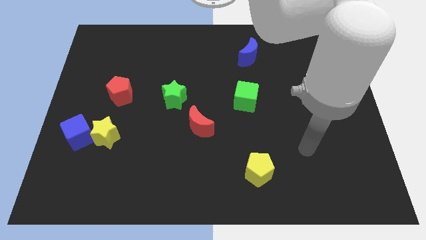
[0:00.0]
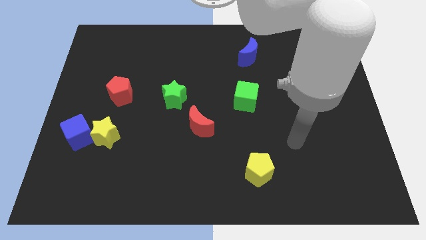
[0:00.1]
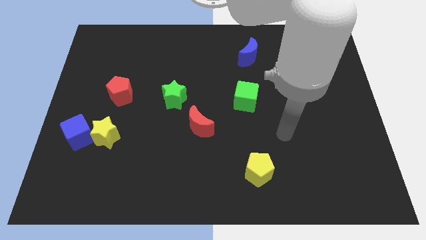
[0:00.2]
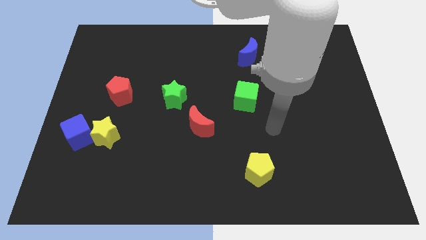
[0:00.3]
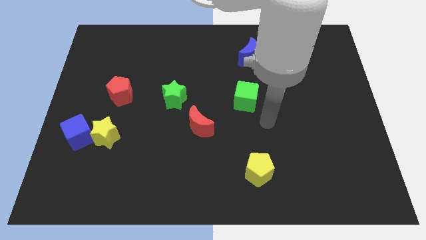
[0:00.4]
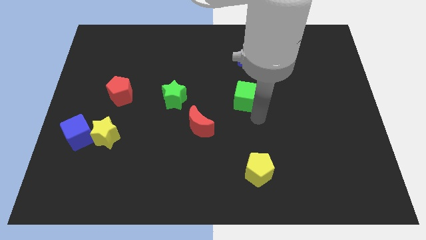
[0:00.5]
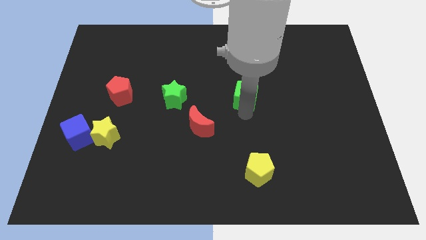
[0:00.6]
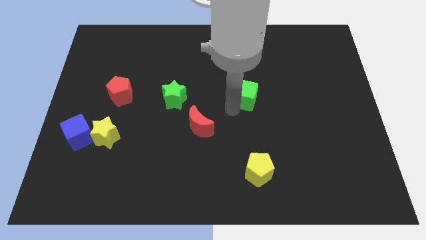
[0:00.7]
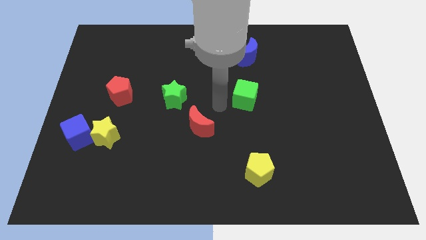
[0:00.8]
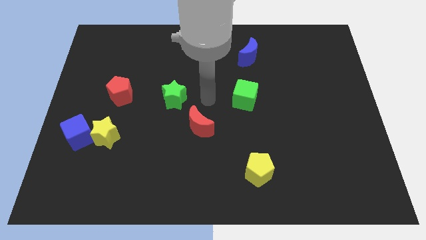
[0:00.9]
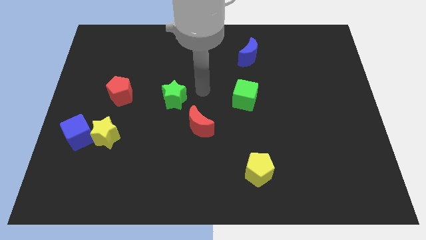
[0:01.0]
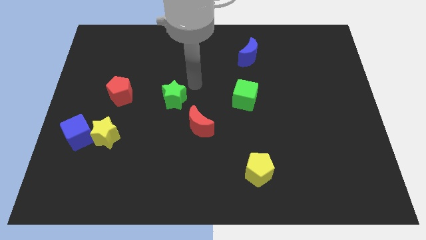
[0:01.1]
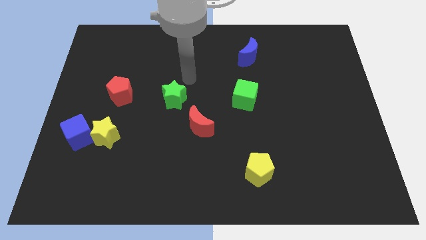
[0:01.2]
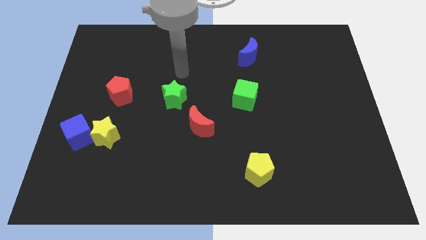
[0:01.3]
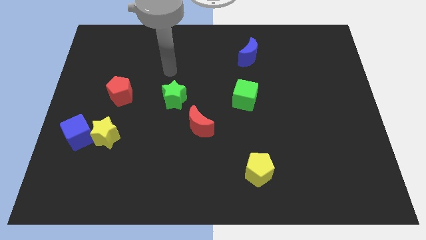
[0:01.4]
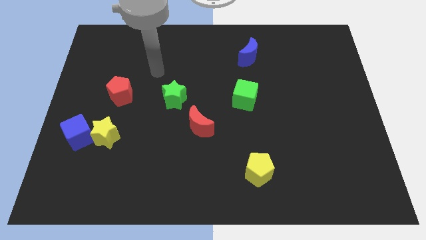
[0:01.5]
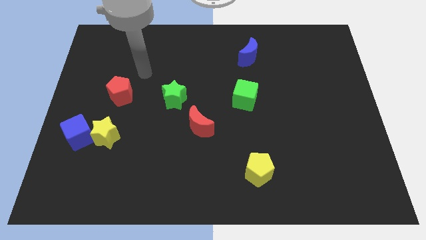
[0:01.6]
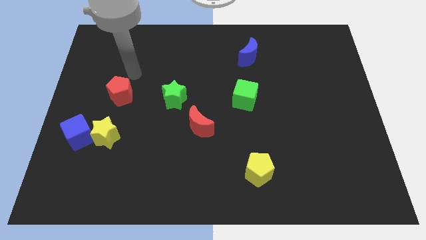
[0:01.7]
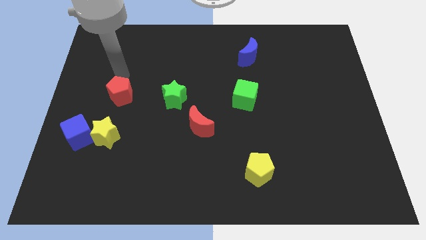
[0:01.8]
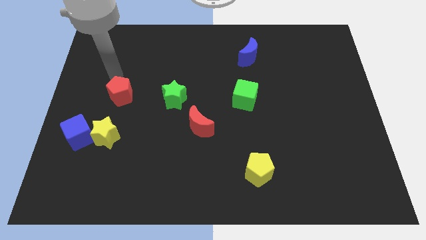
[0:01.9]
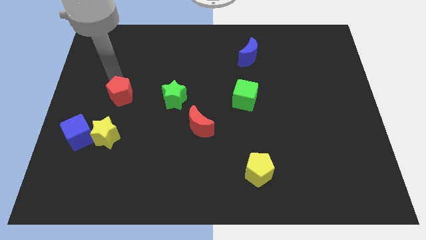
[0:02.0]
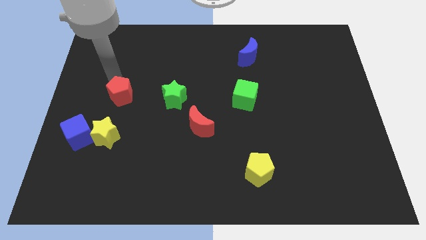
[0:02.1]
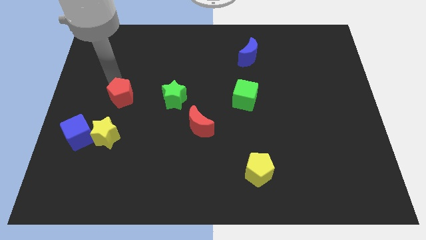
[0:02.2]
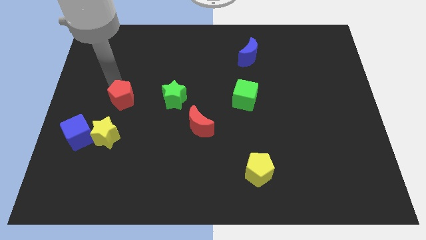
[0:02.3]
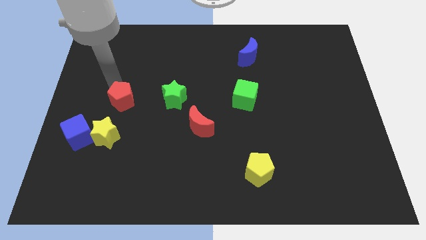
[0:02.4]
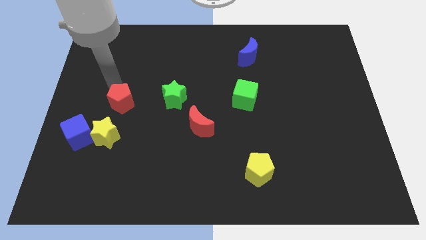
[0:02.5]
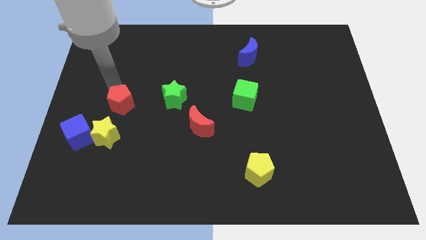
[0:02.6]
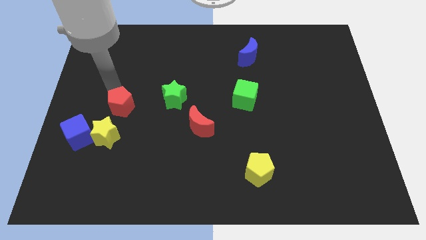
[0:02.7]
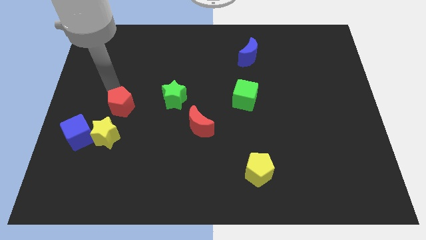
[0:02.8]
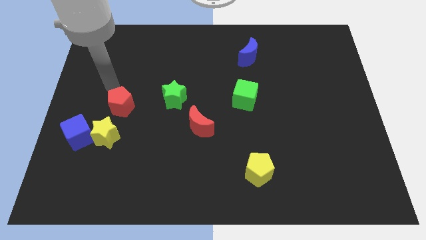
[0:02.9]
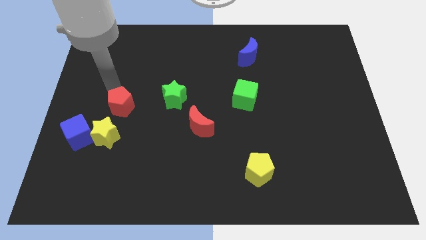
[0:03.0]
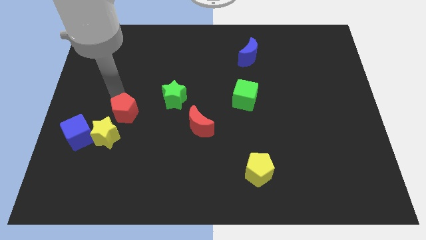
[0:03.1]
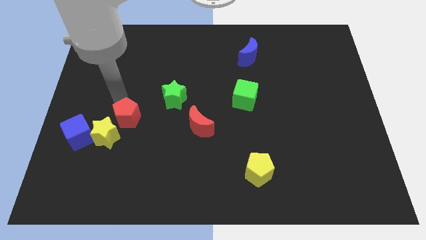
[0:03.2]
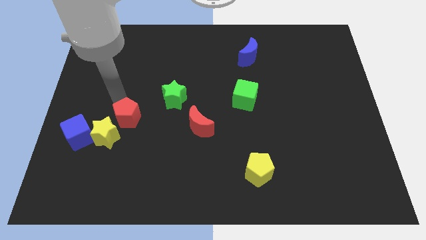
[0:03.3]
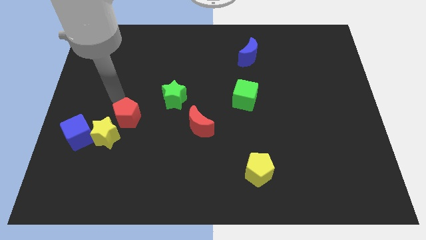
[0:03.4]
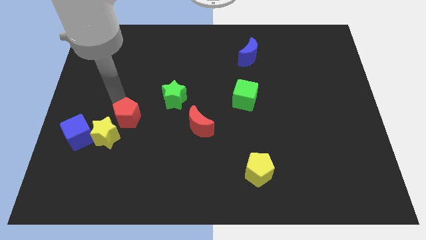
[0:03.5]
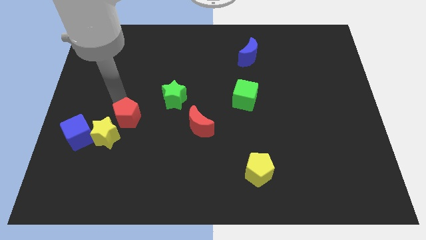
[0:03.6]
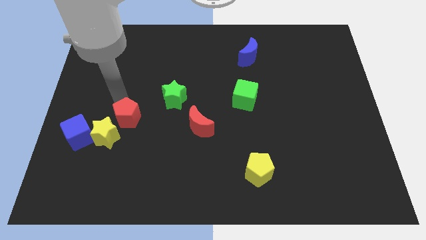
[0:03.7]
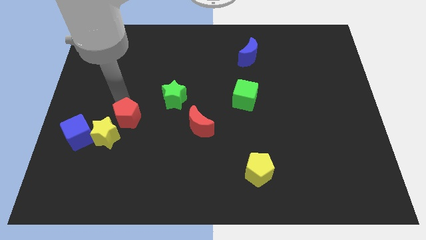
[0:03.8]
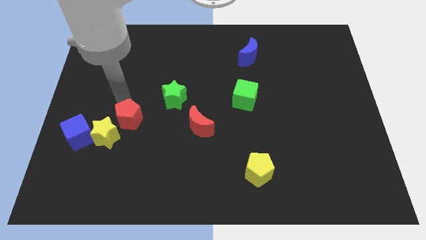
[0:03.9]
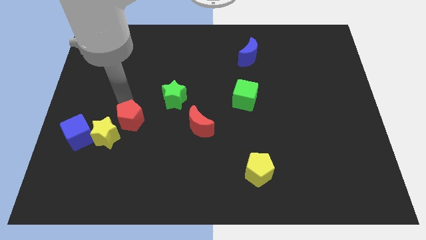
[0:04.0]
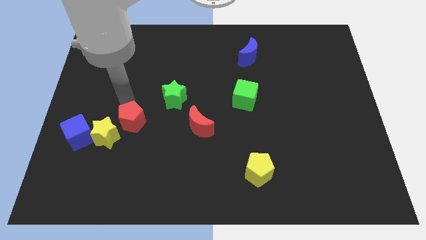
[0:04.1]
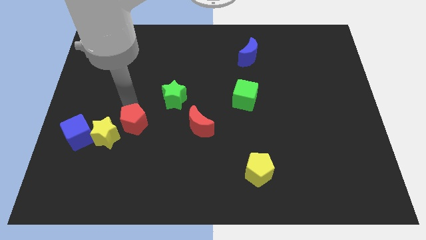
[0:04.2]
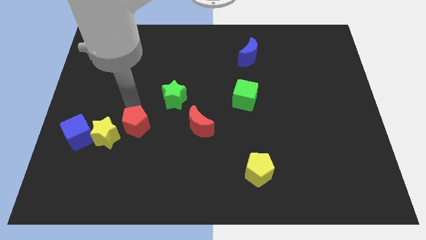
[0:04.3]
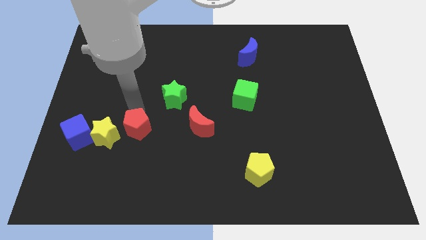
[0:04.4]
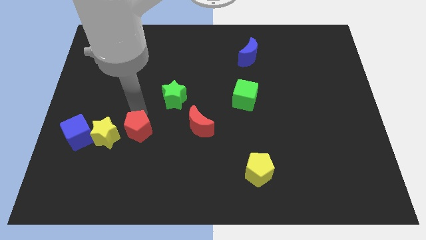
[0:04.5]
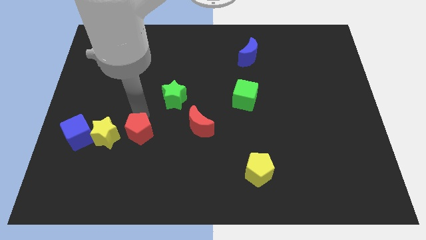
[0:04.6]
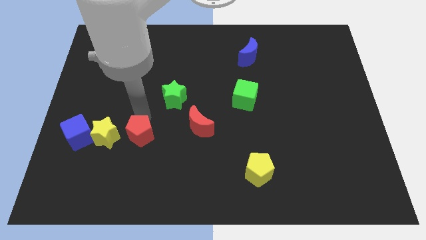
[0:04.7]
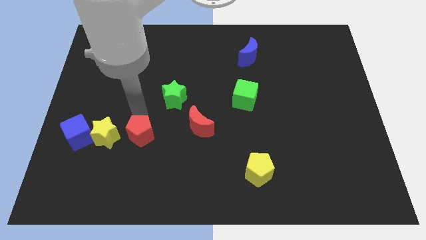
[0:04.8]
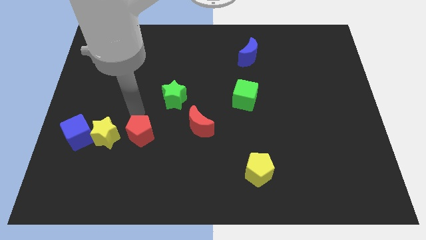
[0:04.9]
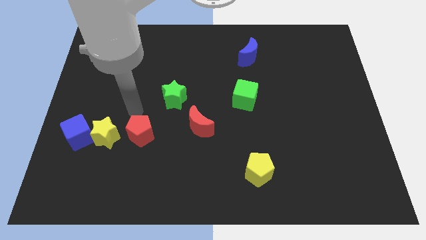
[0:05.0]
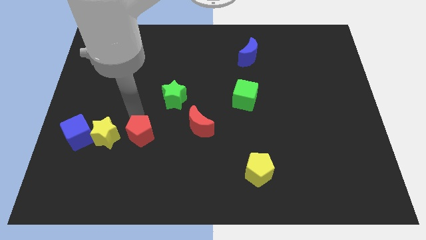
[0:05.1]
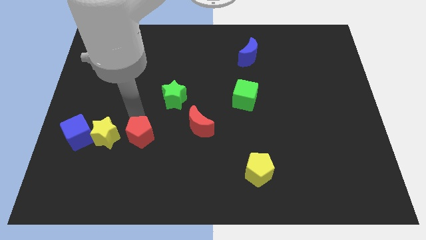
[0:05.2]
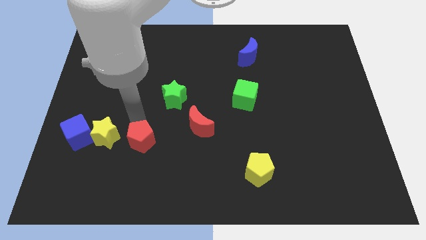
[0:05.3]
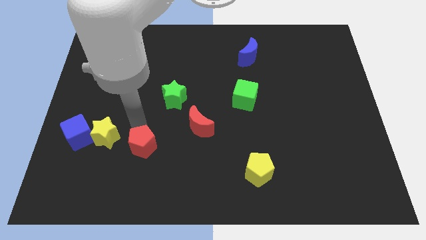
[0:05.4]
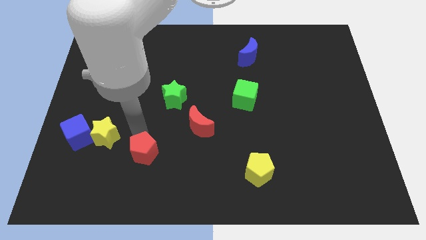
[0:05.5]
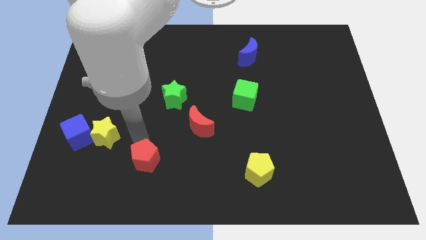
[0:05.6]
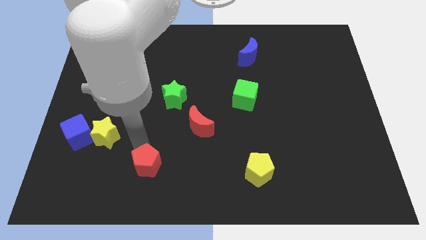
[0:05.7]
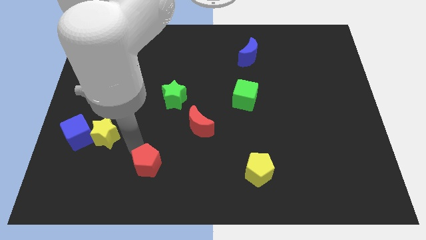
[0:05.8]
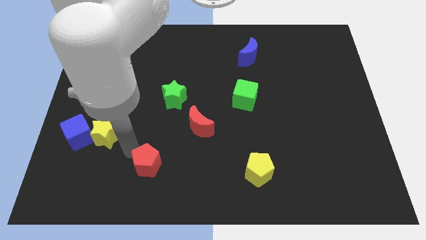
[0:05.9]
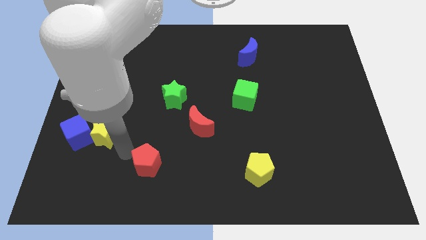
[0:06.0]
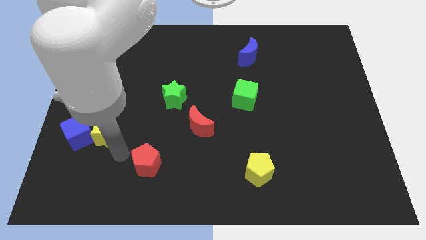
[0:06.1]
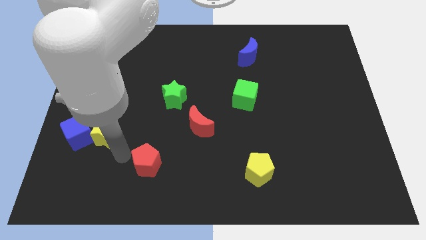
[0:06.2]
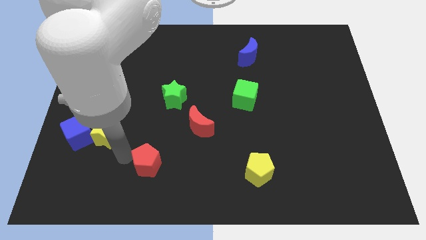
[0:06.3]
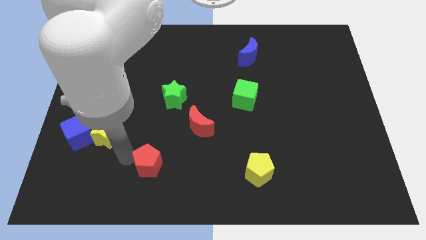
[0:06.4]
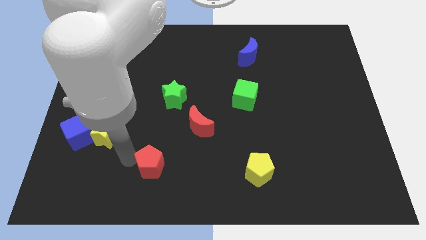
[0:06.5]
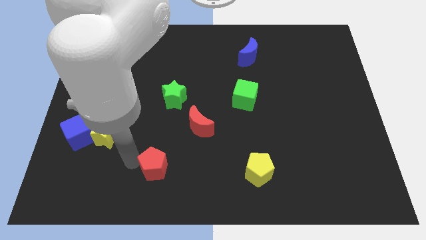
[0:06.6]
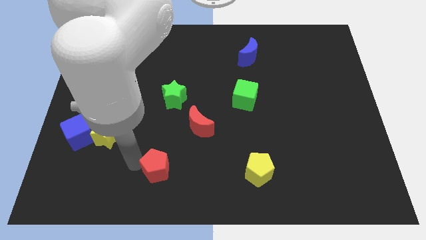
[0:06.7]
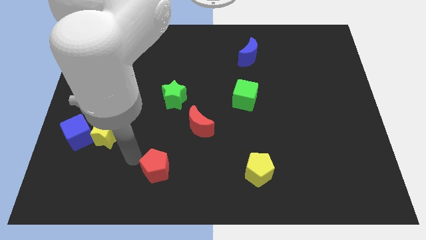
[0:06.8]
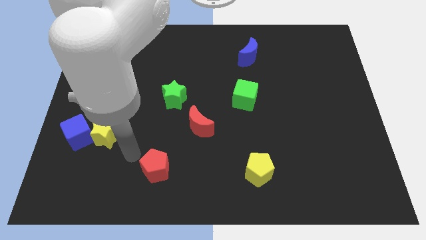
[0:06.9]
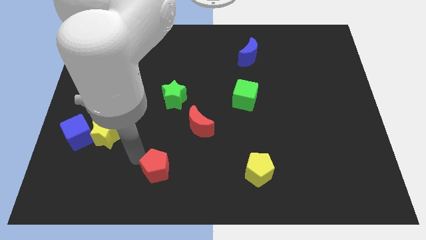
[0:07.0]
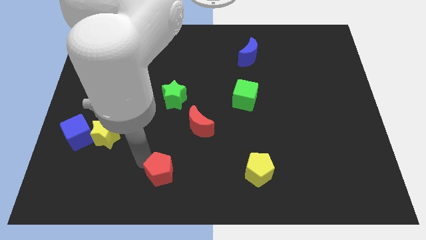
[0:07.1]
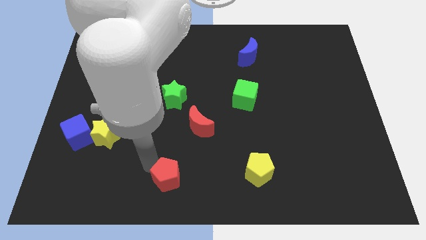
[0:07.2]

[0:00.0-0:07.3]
move the red pentagon to the bottom
